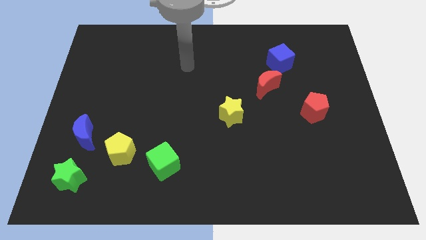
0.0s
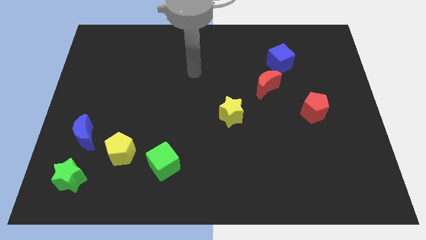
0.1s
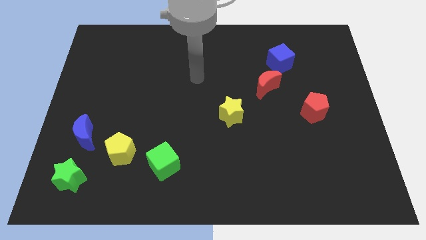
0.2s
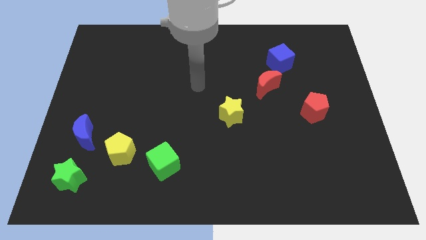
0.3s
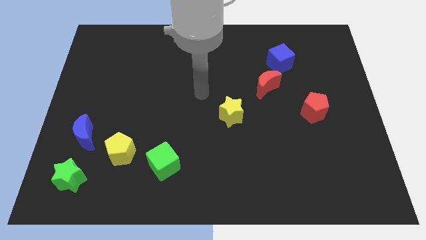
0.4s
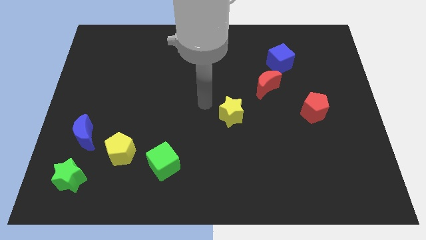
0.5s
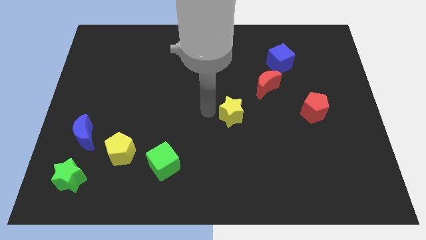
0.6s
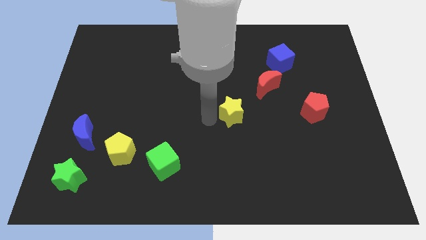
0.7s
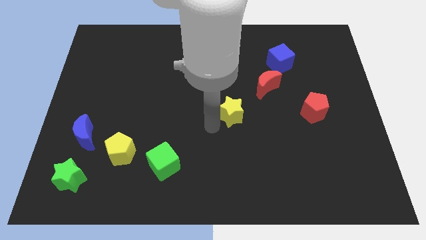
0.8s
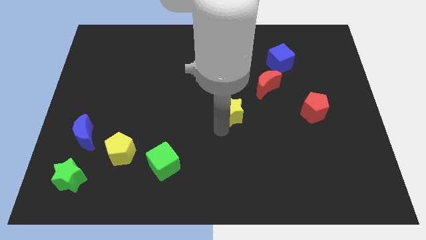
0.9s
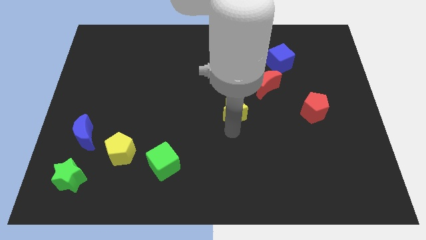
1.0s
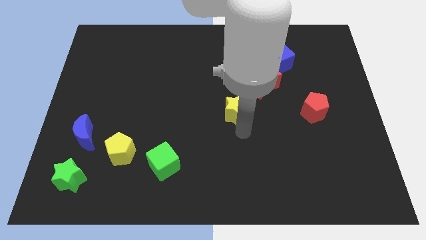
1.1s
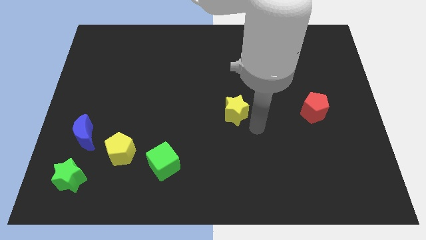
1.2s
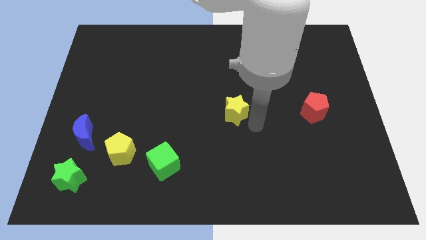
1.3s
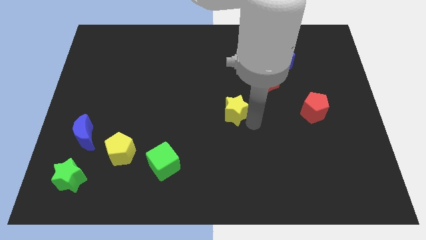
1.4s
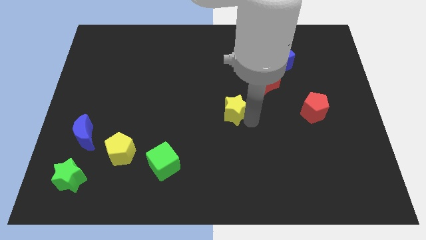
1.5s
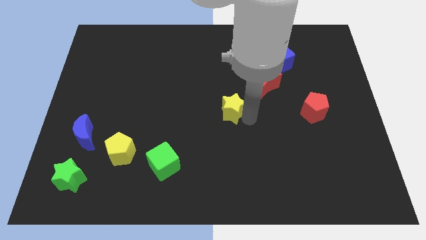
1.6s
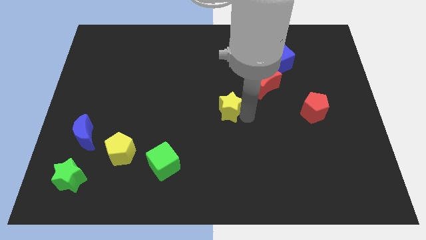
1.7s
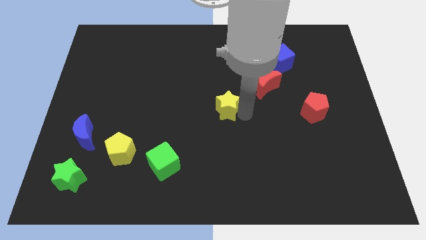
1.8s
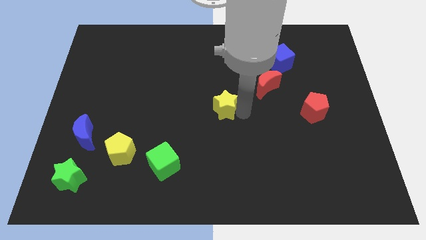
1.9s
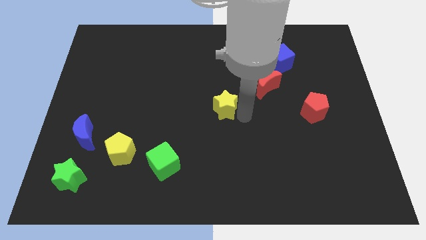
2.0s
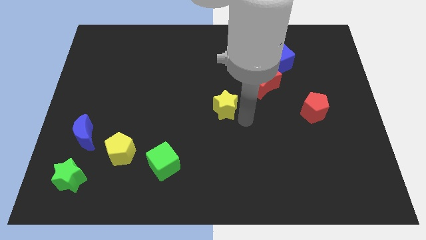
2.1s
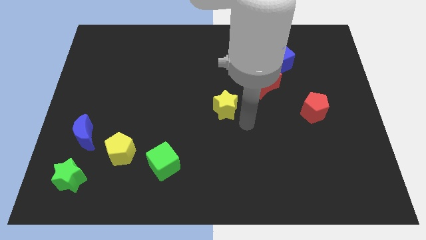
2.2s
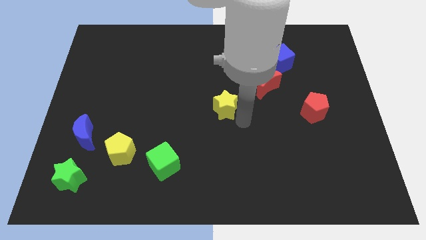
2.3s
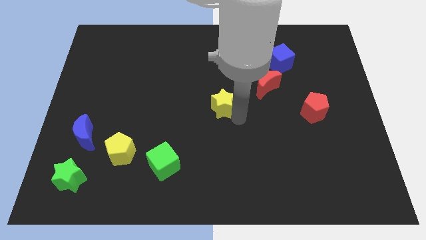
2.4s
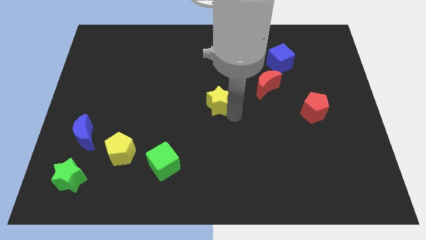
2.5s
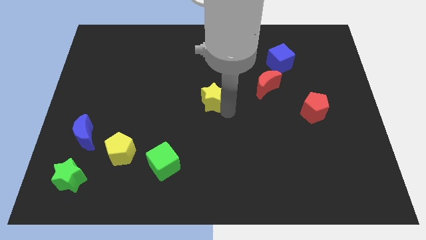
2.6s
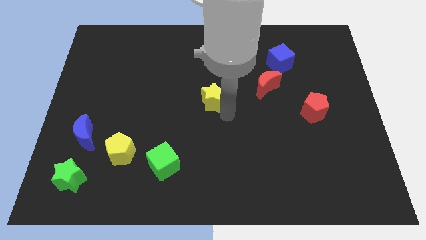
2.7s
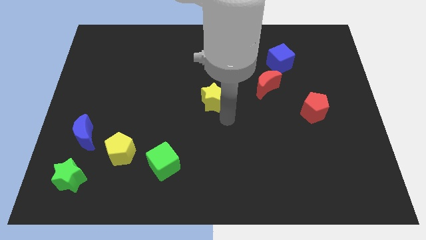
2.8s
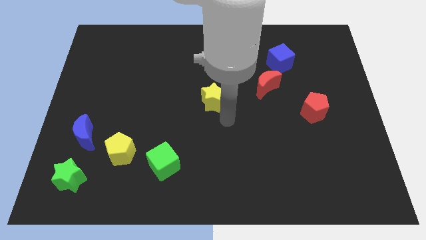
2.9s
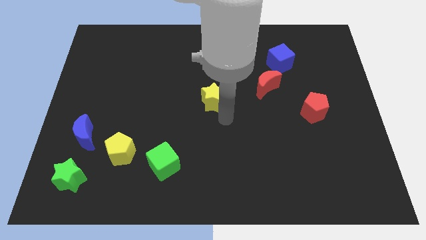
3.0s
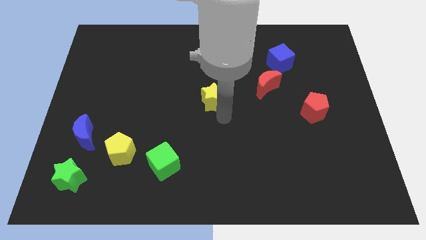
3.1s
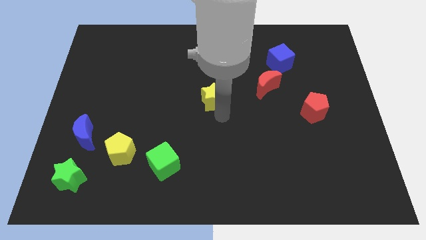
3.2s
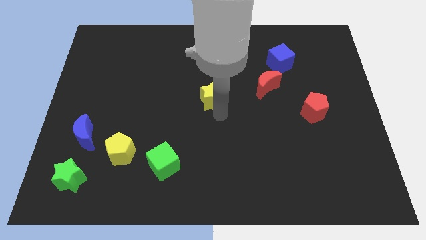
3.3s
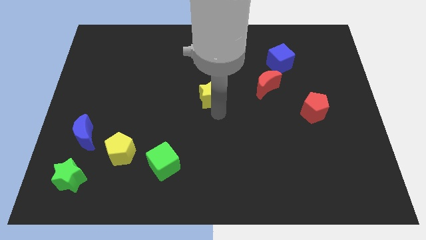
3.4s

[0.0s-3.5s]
push the yellow star a little up and to the left diagonally

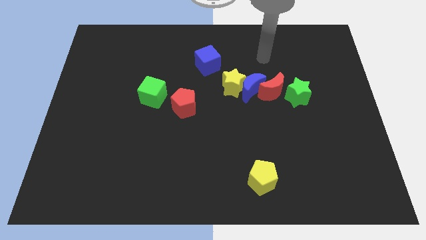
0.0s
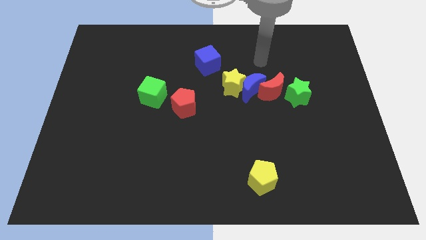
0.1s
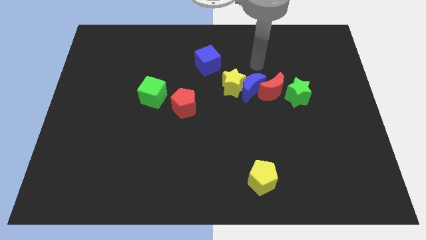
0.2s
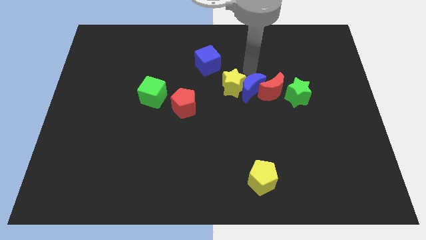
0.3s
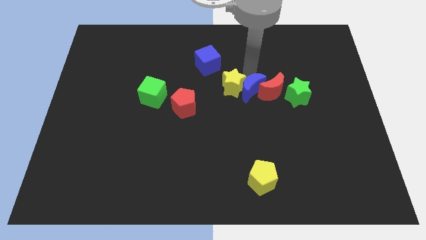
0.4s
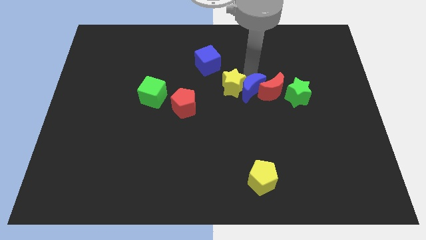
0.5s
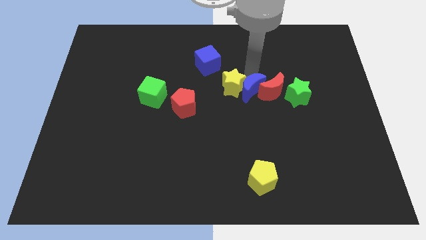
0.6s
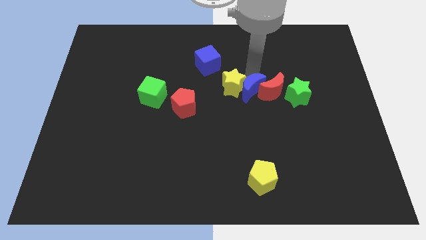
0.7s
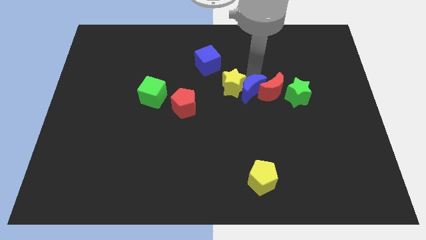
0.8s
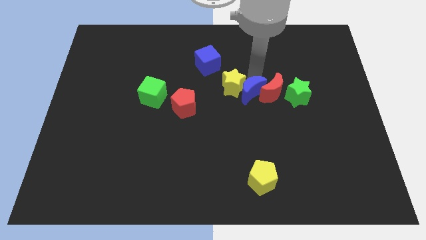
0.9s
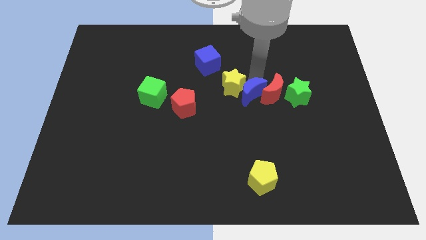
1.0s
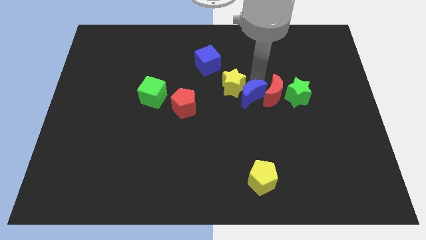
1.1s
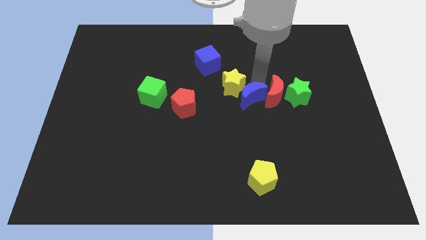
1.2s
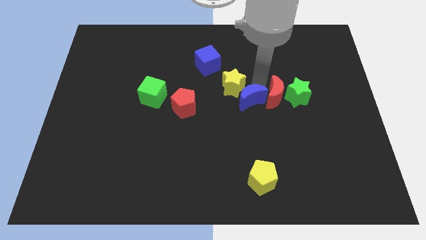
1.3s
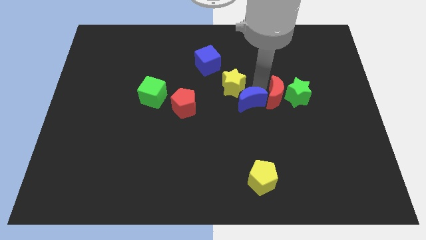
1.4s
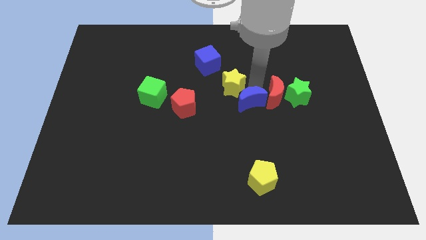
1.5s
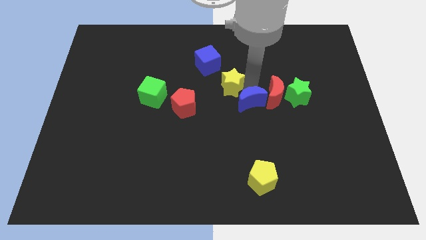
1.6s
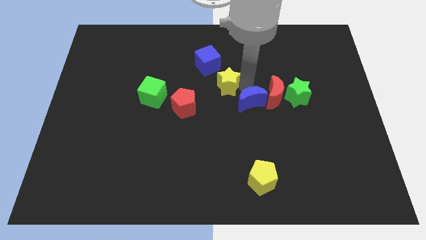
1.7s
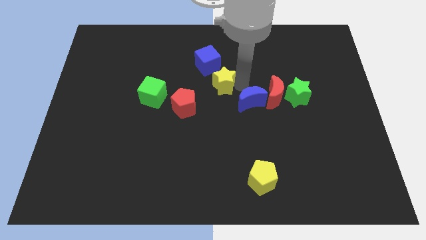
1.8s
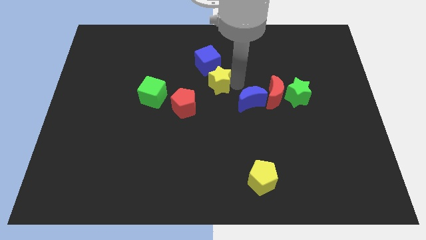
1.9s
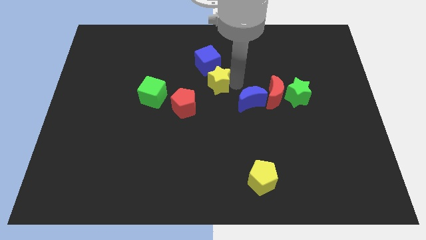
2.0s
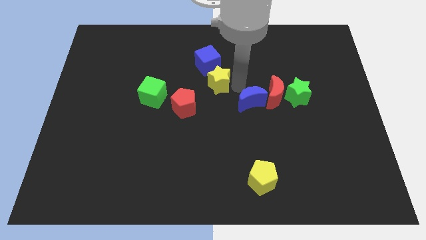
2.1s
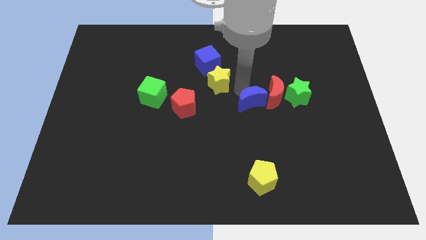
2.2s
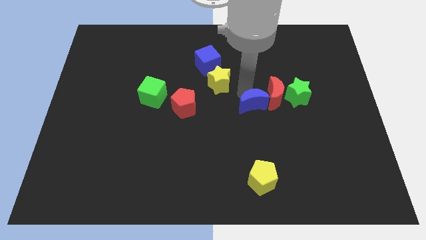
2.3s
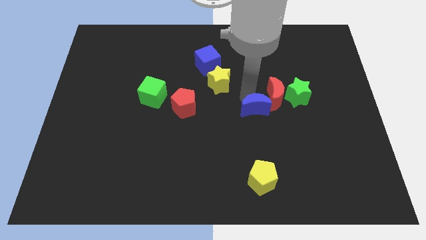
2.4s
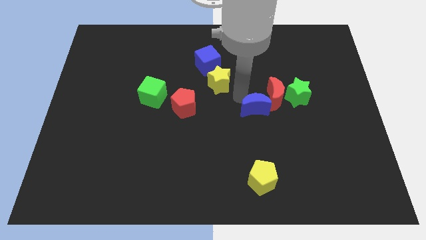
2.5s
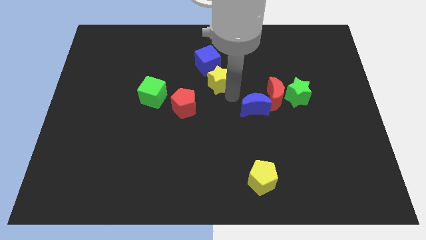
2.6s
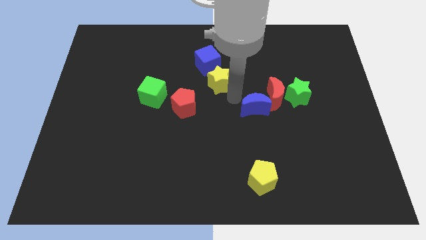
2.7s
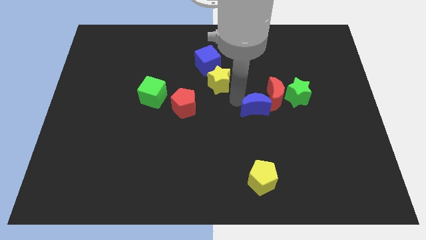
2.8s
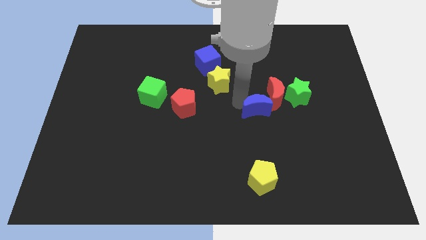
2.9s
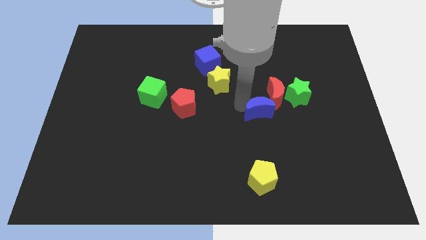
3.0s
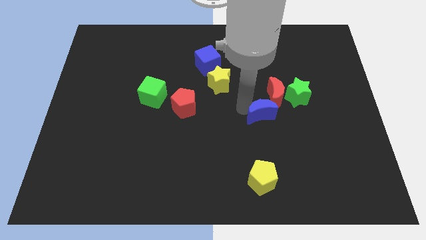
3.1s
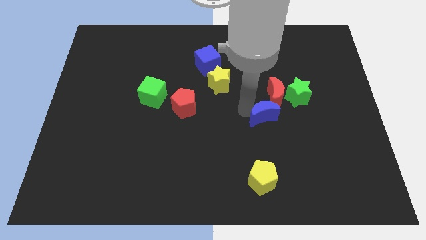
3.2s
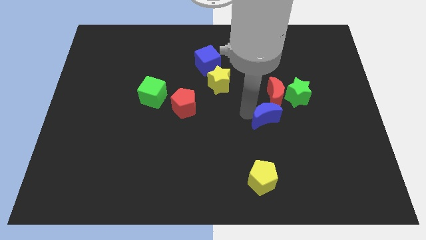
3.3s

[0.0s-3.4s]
slide the blue moon downwards and right diagonally a little bit

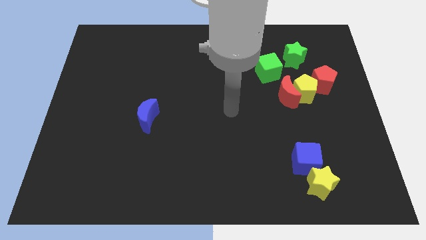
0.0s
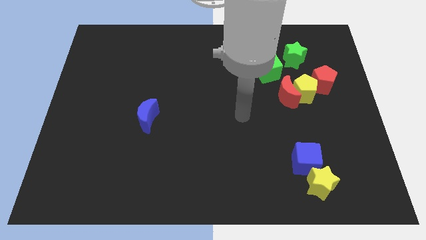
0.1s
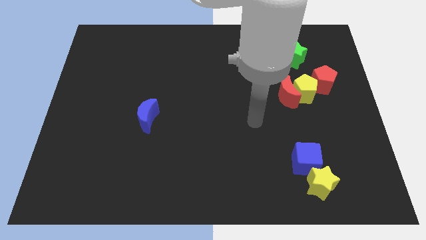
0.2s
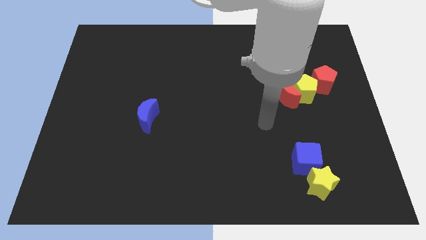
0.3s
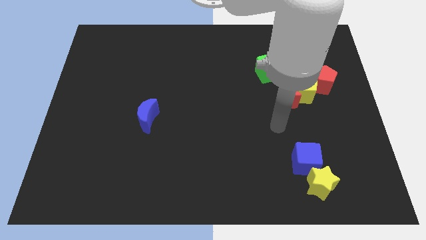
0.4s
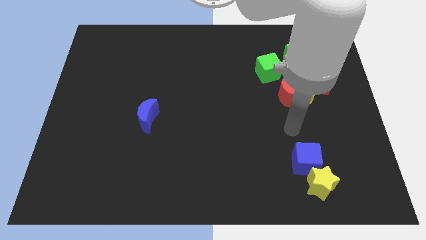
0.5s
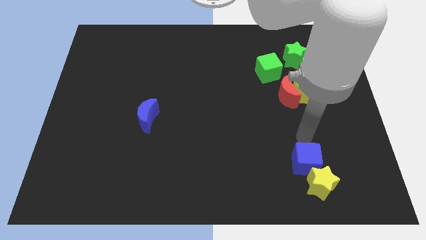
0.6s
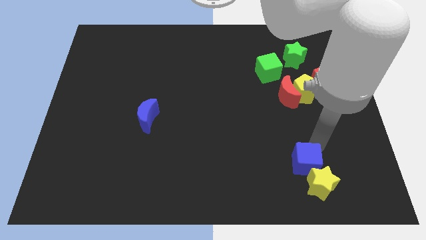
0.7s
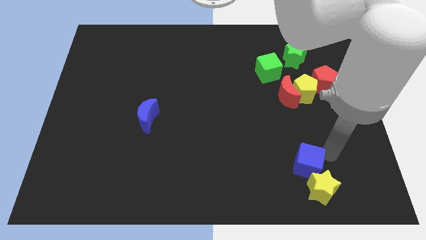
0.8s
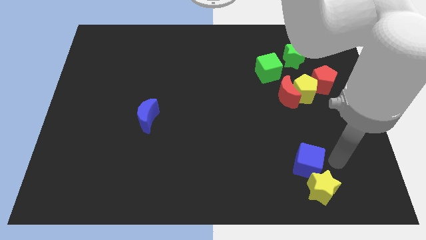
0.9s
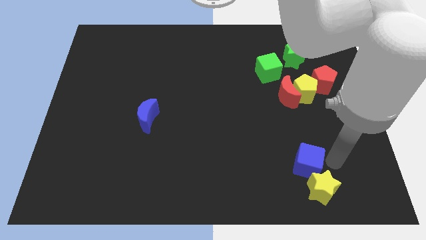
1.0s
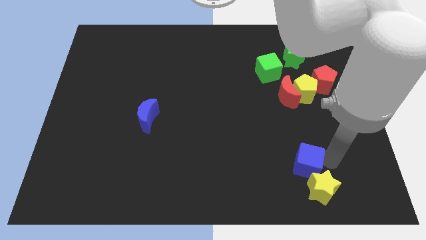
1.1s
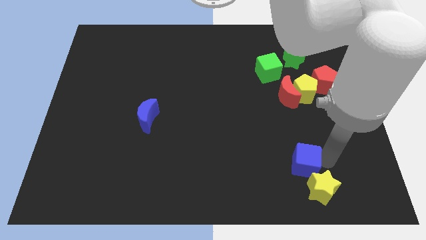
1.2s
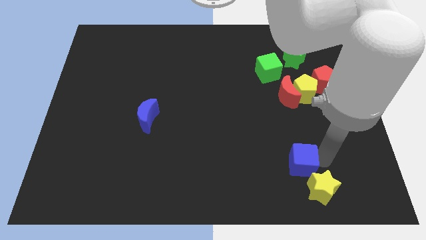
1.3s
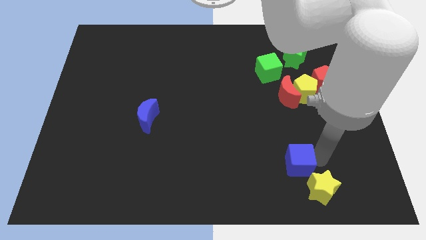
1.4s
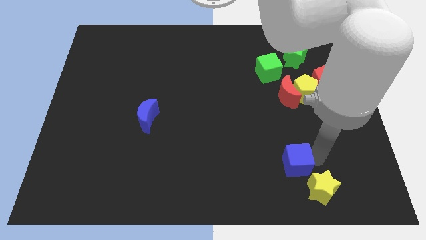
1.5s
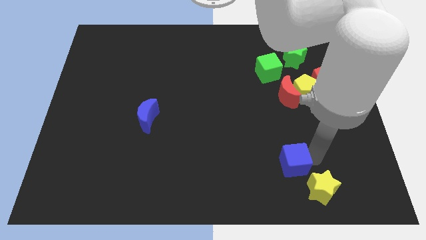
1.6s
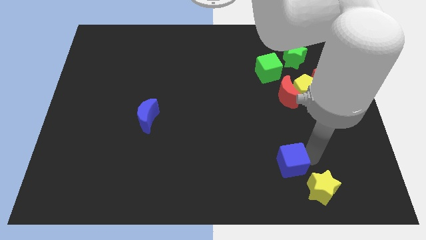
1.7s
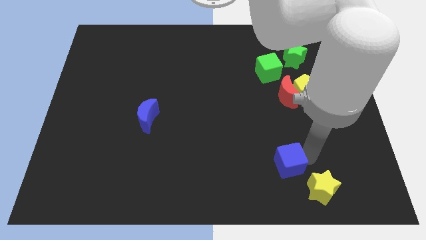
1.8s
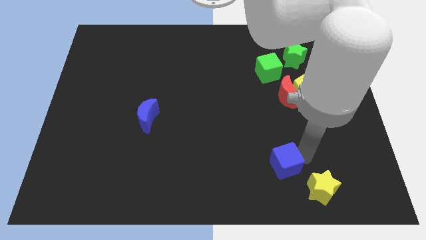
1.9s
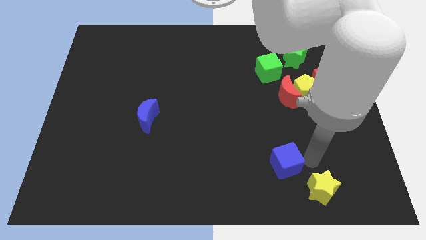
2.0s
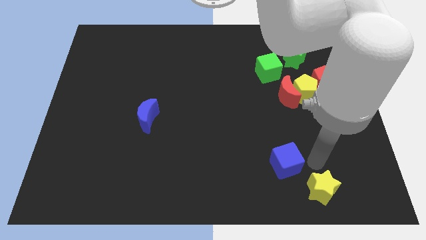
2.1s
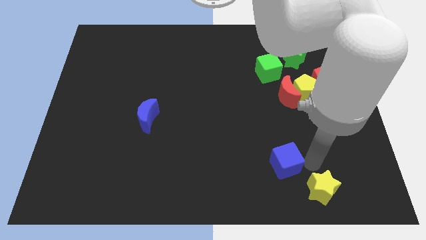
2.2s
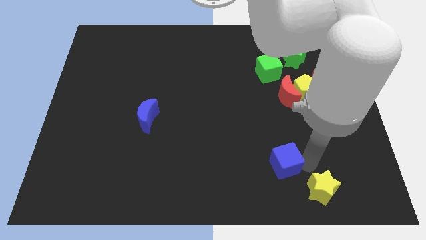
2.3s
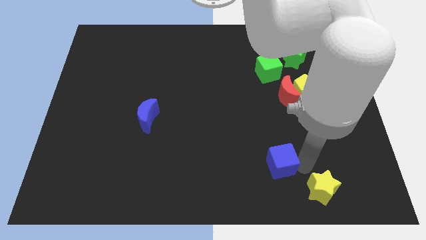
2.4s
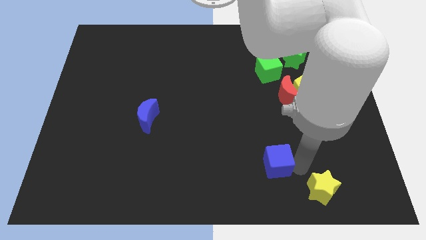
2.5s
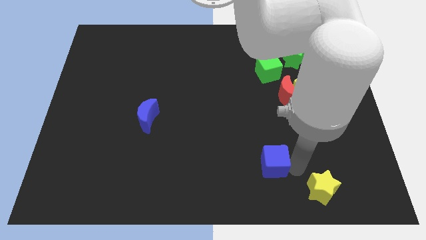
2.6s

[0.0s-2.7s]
push the blue cube a little to the left
